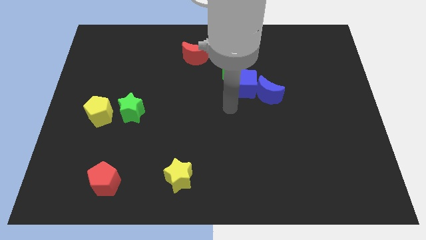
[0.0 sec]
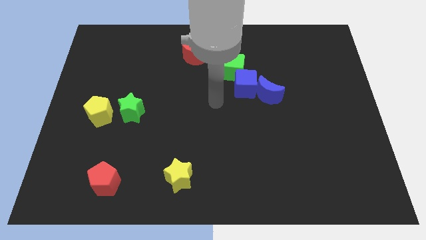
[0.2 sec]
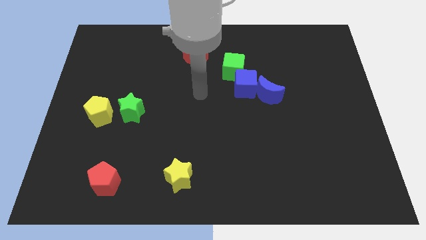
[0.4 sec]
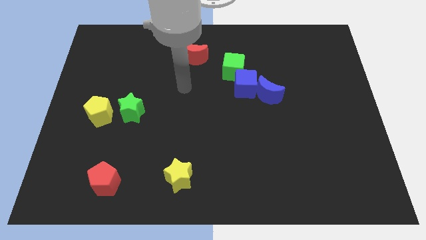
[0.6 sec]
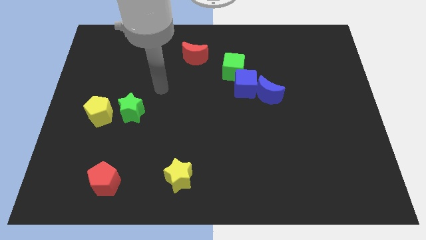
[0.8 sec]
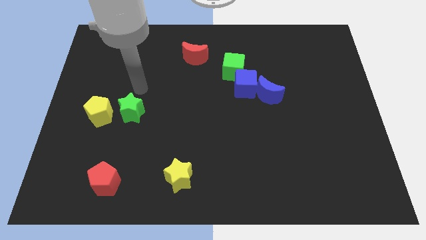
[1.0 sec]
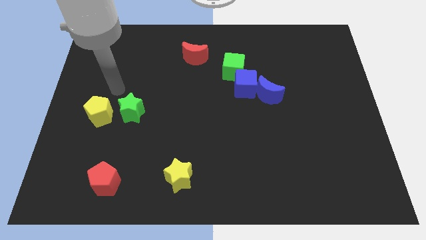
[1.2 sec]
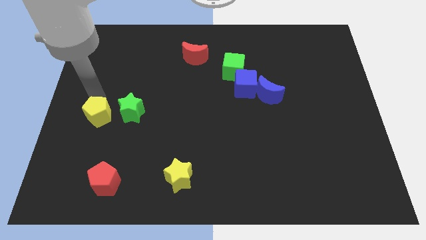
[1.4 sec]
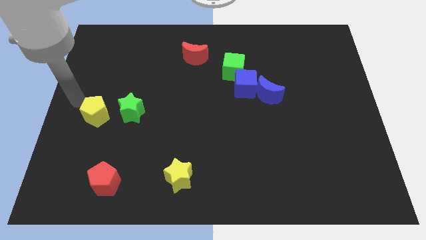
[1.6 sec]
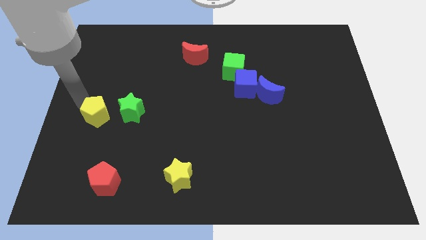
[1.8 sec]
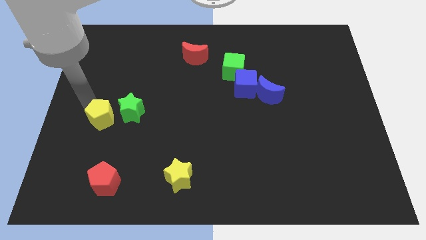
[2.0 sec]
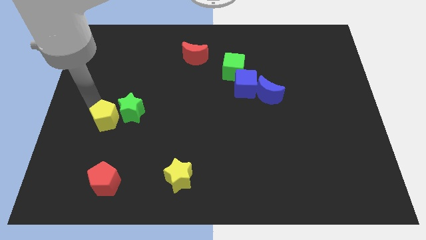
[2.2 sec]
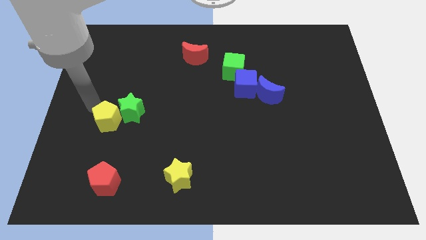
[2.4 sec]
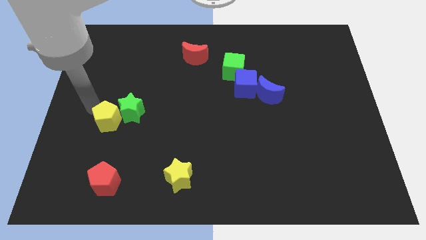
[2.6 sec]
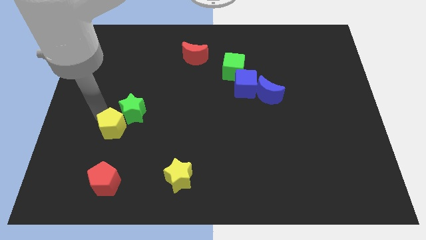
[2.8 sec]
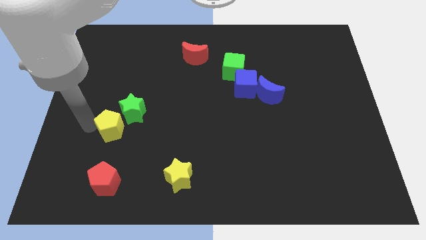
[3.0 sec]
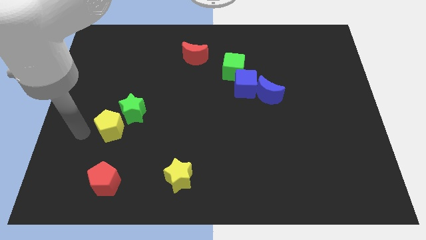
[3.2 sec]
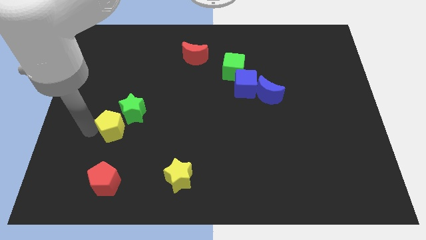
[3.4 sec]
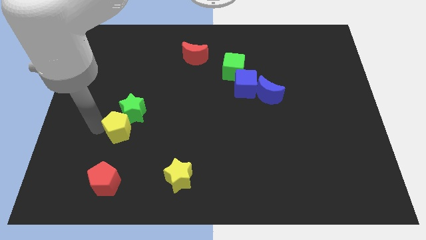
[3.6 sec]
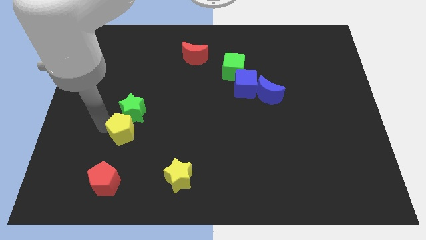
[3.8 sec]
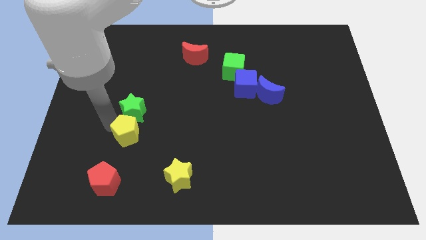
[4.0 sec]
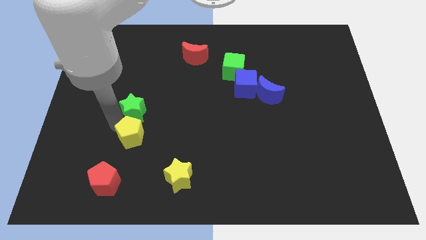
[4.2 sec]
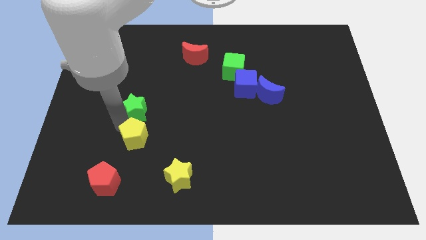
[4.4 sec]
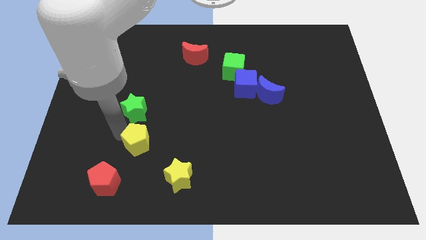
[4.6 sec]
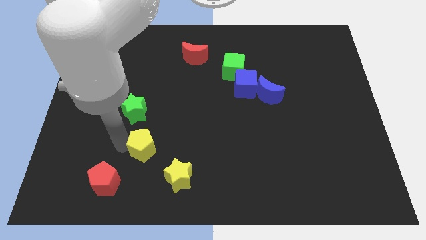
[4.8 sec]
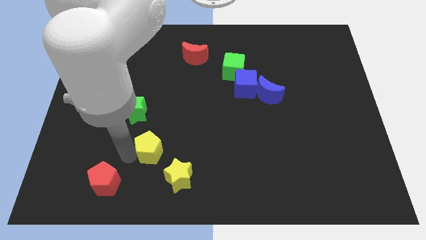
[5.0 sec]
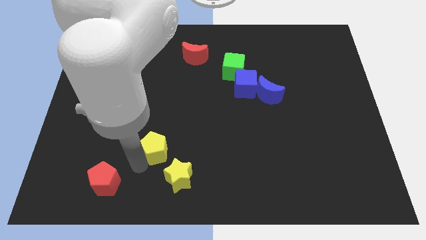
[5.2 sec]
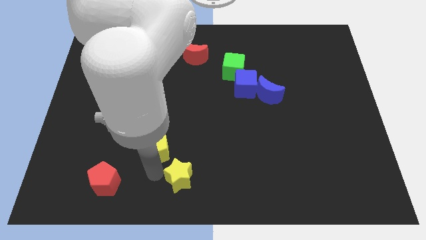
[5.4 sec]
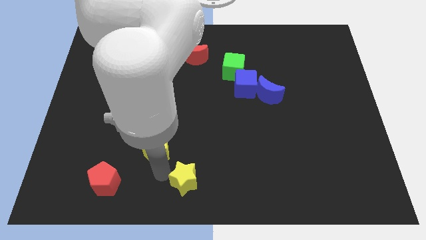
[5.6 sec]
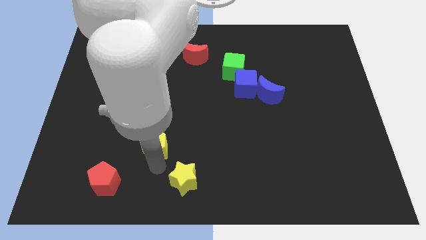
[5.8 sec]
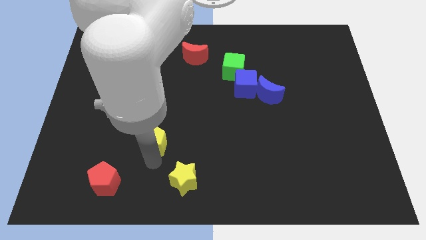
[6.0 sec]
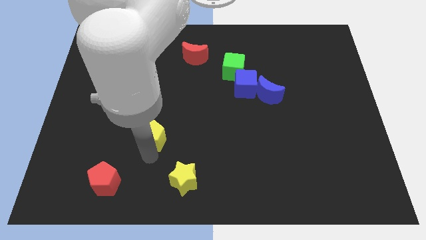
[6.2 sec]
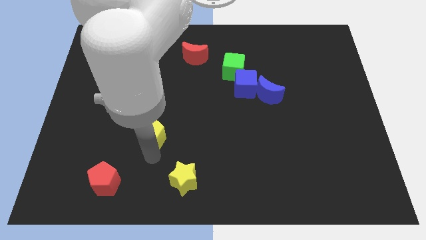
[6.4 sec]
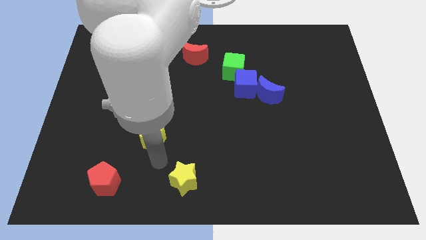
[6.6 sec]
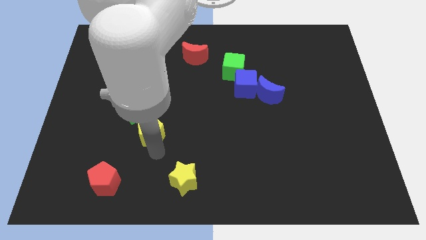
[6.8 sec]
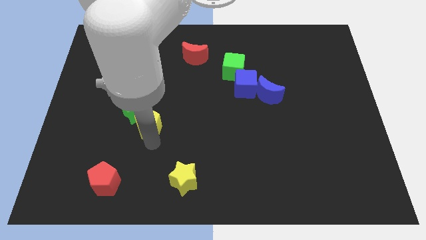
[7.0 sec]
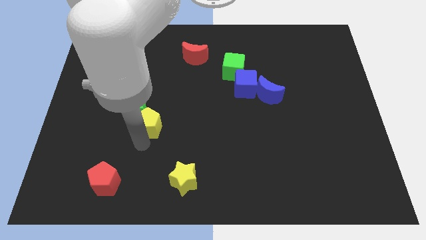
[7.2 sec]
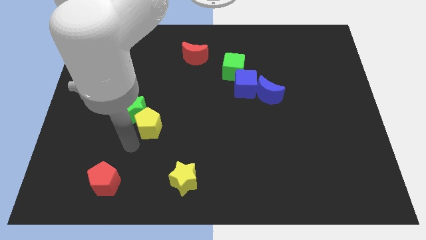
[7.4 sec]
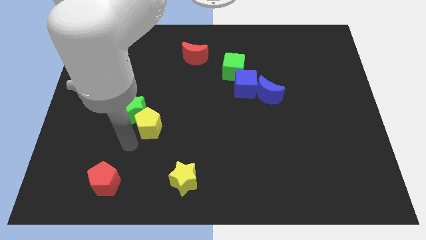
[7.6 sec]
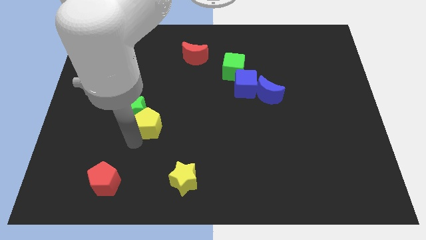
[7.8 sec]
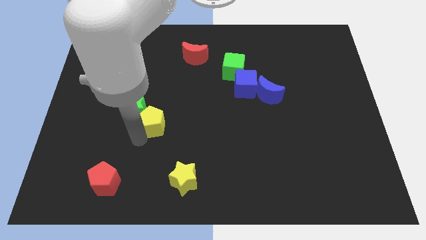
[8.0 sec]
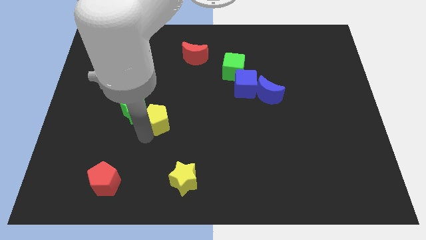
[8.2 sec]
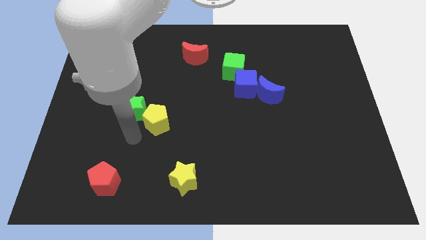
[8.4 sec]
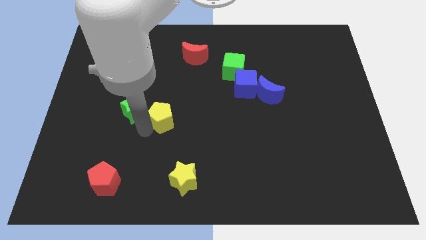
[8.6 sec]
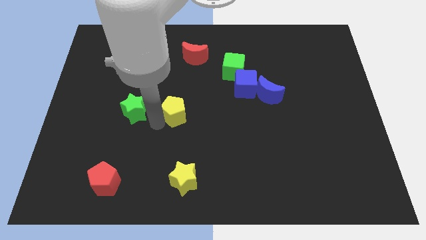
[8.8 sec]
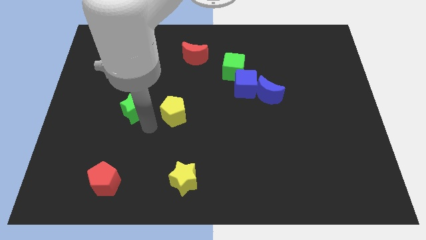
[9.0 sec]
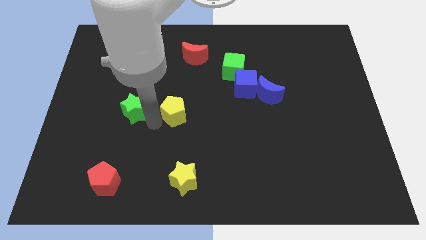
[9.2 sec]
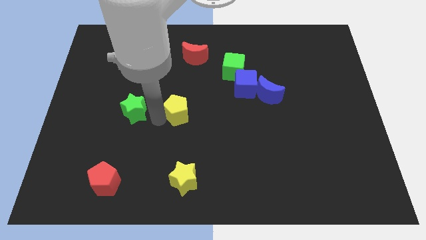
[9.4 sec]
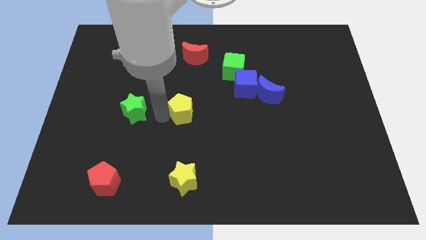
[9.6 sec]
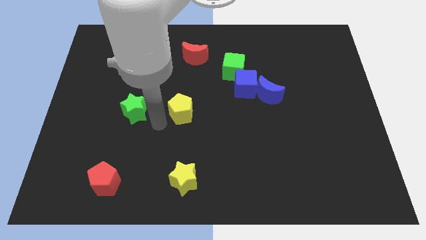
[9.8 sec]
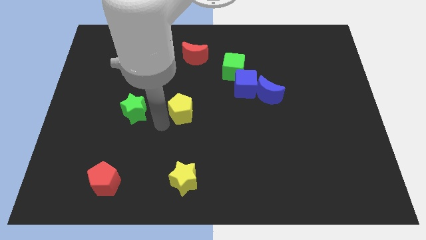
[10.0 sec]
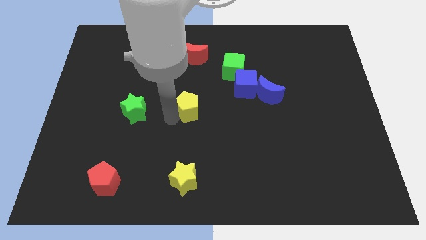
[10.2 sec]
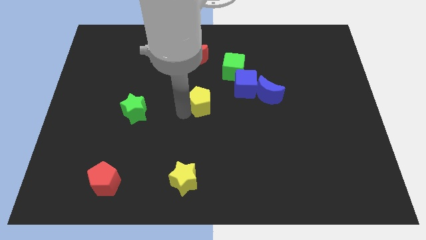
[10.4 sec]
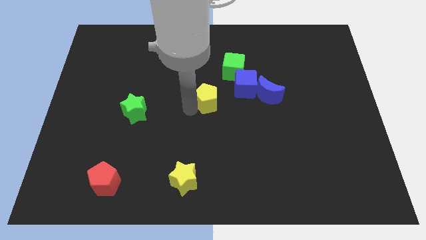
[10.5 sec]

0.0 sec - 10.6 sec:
slide the yellow pentagon to the left side of the blue moon

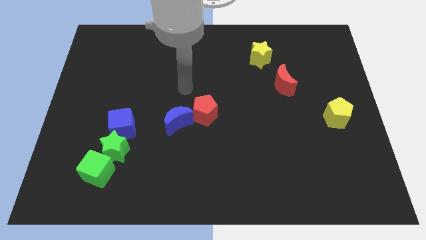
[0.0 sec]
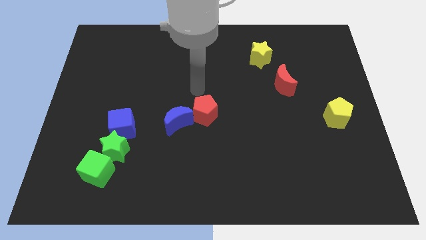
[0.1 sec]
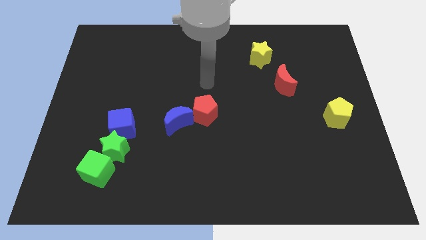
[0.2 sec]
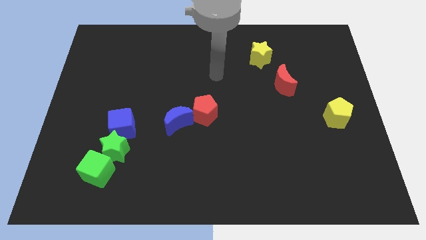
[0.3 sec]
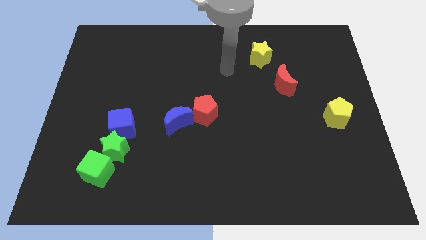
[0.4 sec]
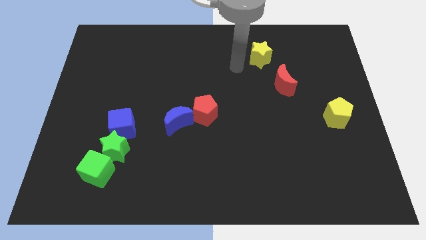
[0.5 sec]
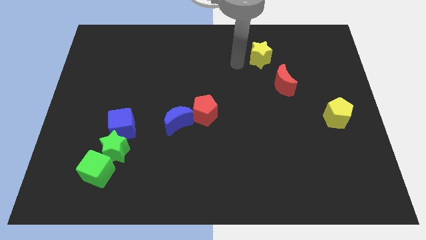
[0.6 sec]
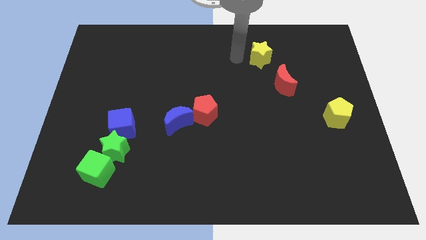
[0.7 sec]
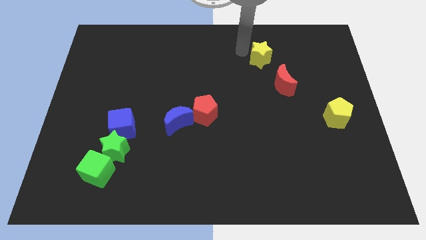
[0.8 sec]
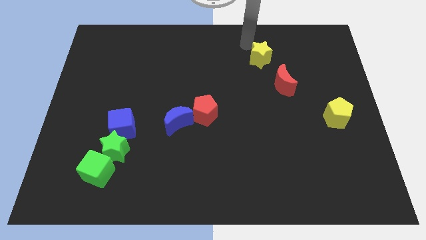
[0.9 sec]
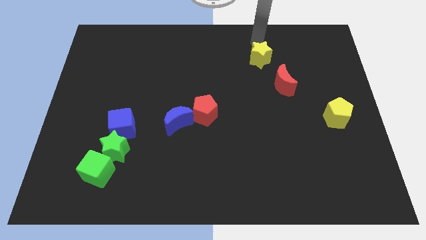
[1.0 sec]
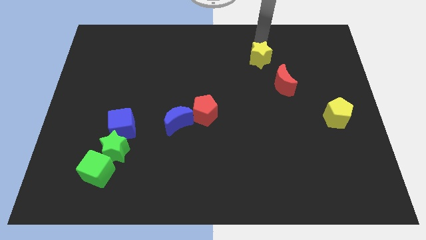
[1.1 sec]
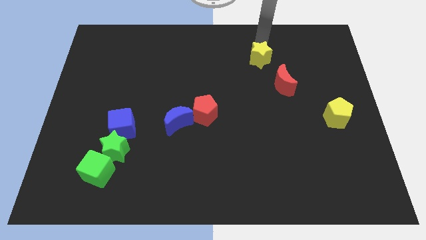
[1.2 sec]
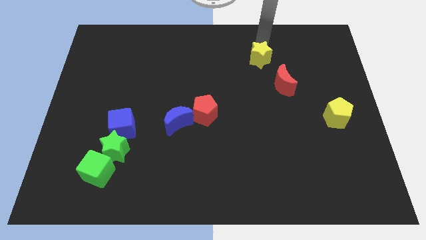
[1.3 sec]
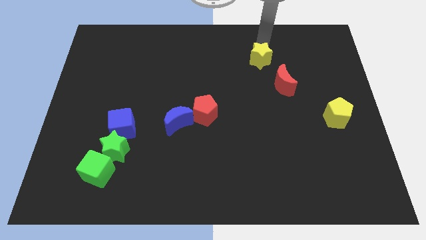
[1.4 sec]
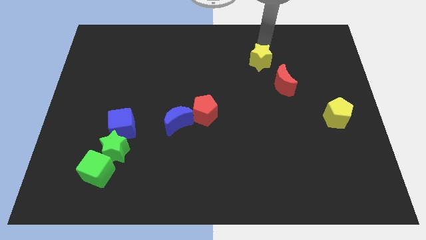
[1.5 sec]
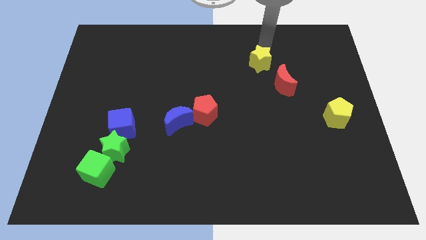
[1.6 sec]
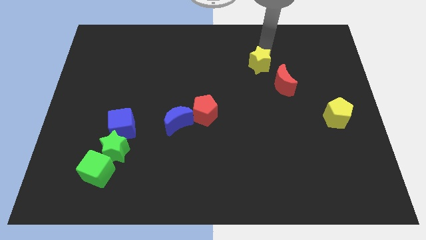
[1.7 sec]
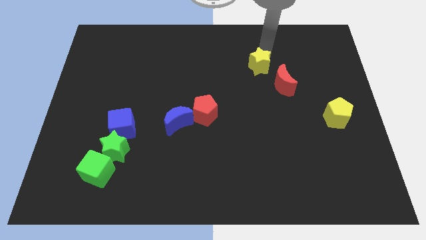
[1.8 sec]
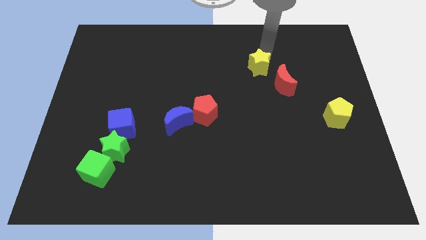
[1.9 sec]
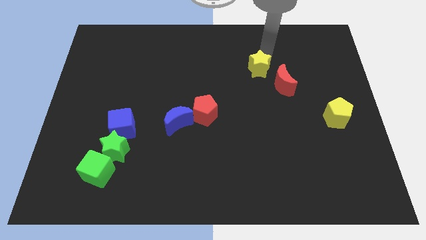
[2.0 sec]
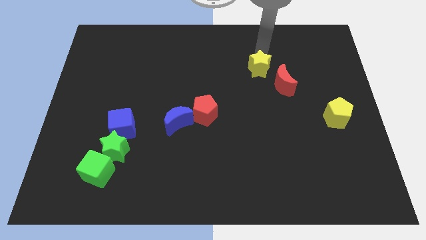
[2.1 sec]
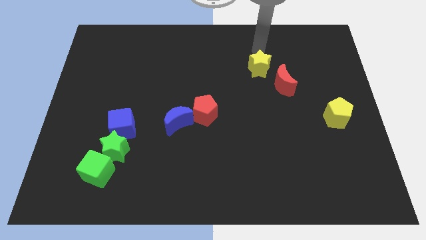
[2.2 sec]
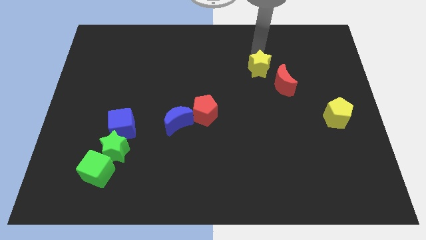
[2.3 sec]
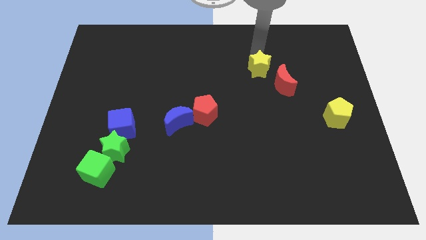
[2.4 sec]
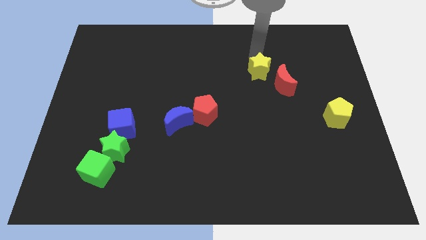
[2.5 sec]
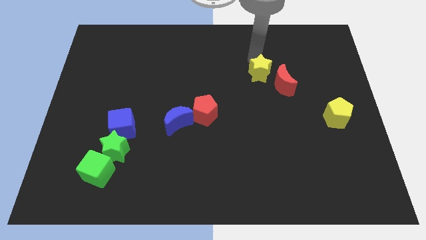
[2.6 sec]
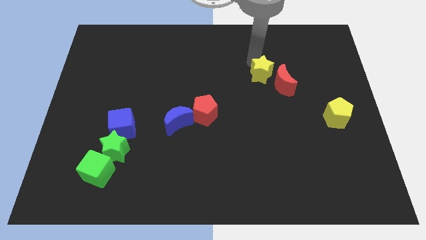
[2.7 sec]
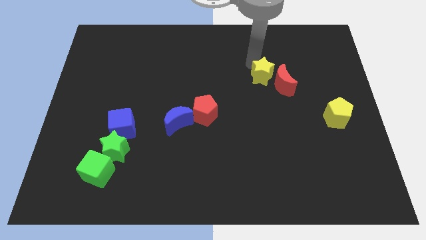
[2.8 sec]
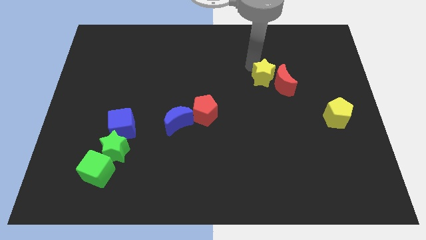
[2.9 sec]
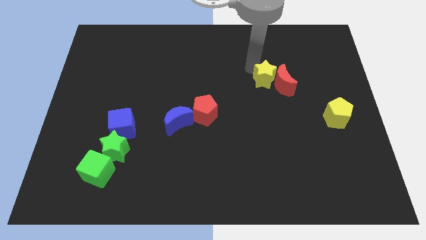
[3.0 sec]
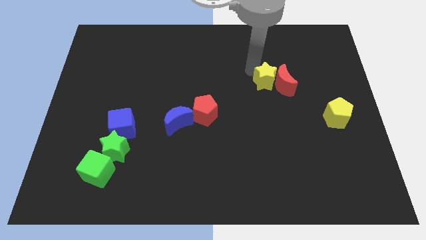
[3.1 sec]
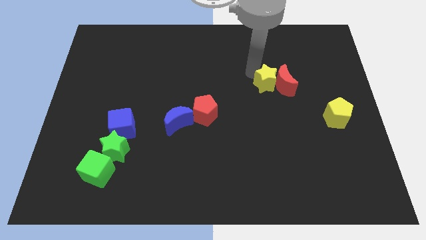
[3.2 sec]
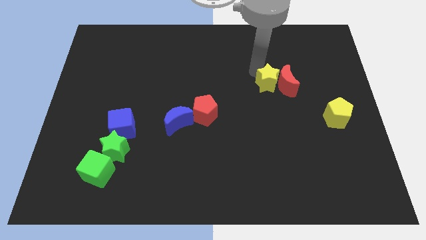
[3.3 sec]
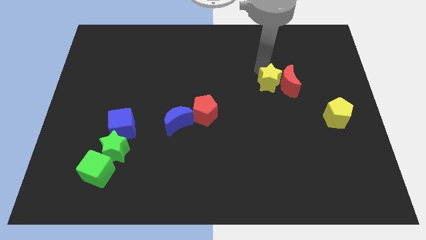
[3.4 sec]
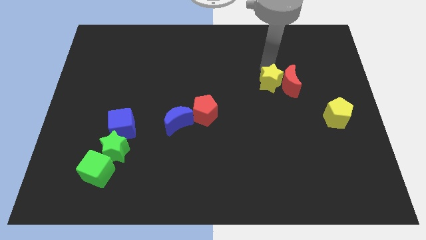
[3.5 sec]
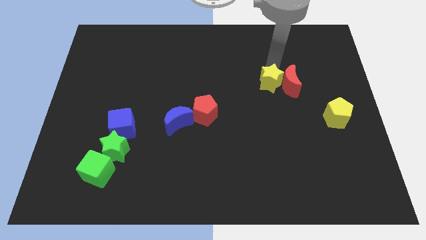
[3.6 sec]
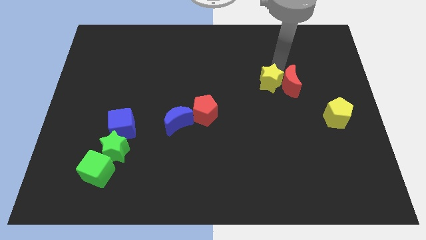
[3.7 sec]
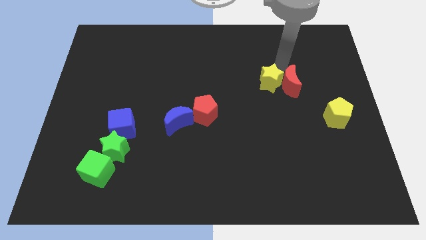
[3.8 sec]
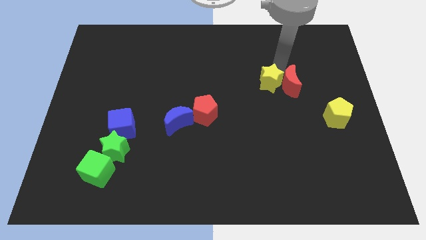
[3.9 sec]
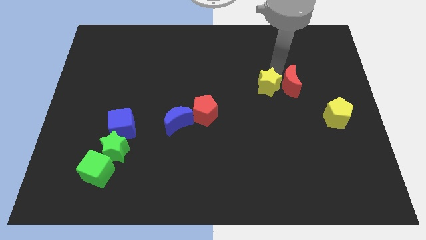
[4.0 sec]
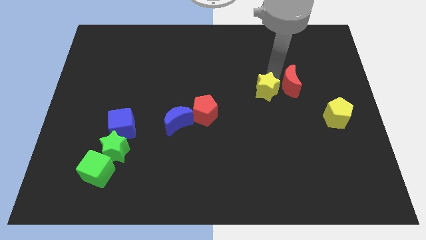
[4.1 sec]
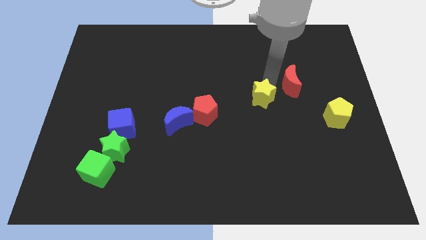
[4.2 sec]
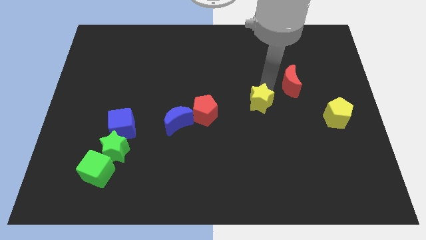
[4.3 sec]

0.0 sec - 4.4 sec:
put the yellow star to the right side of the red pentagon